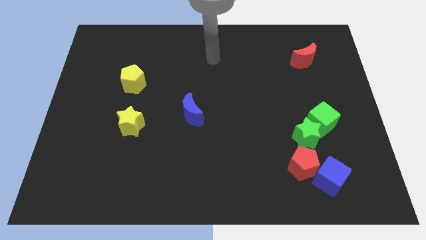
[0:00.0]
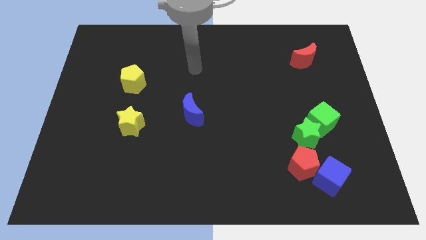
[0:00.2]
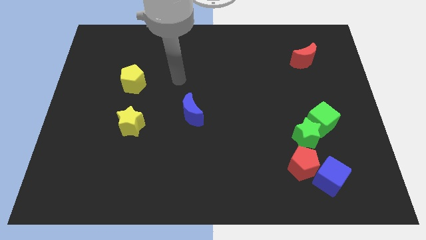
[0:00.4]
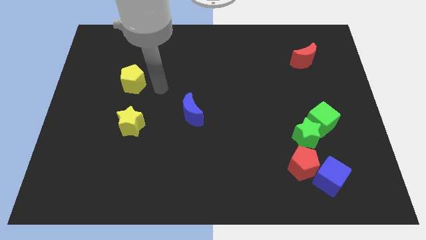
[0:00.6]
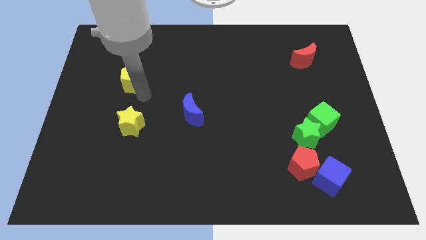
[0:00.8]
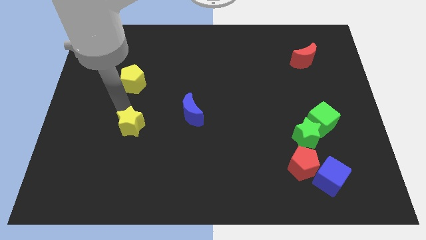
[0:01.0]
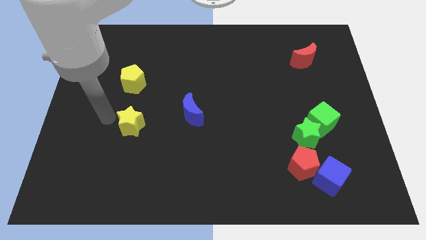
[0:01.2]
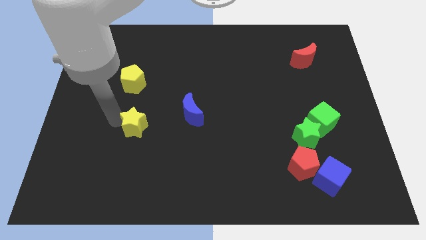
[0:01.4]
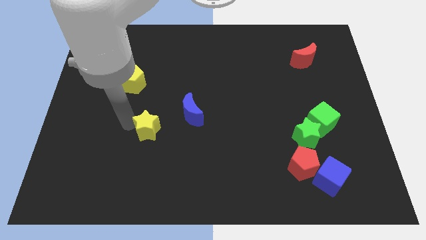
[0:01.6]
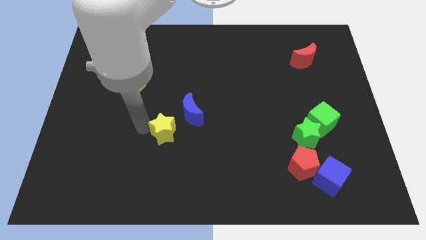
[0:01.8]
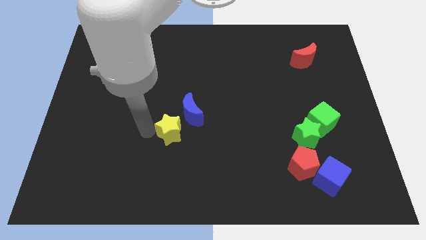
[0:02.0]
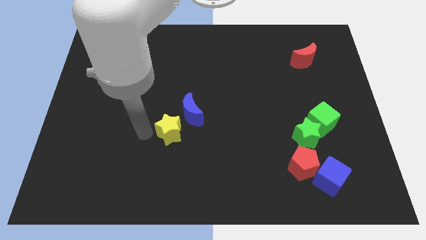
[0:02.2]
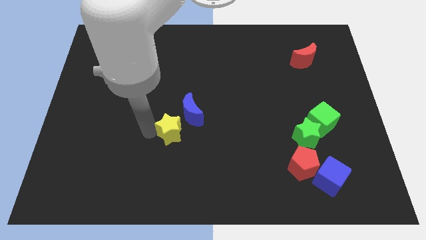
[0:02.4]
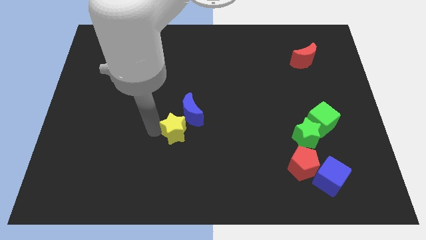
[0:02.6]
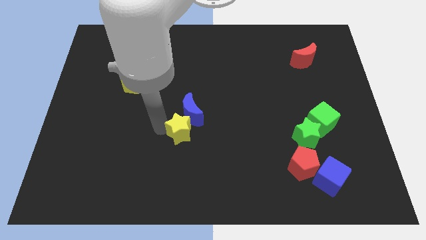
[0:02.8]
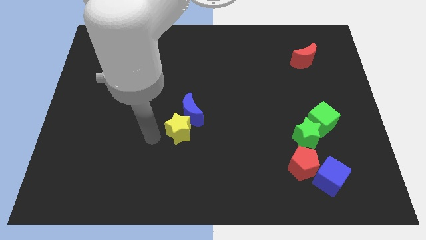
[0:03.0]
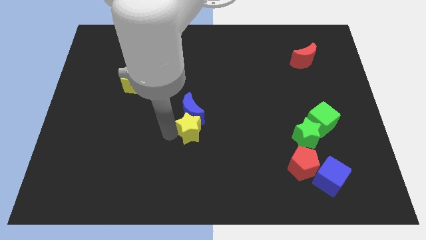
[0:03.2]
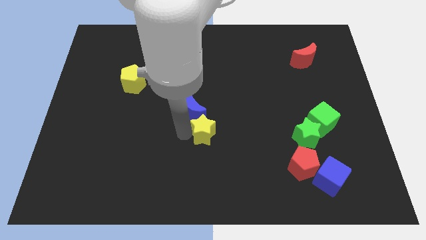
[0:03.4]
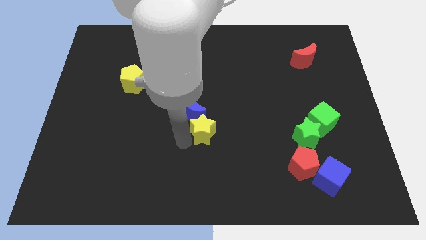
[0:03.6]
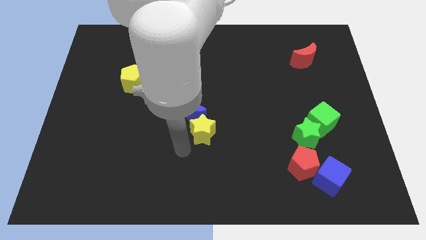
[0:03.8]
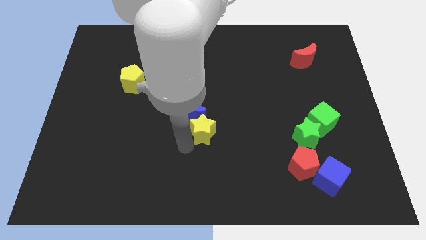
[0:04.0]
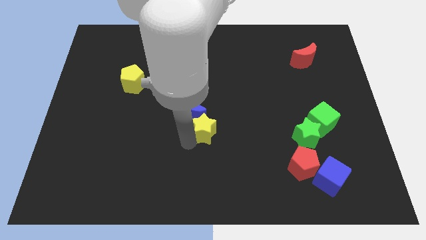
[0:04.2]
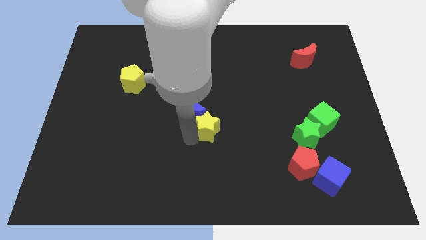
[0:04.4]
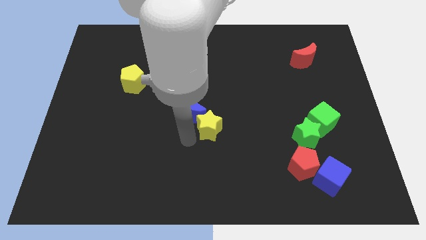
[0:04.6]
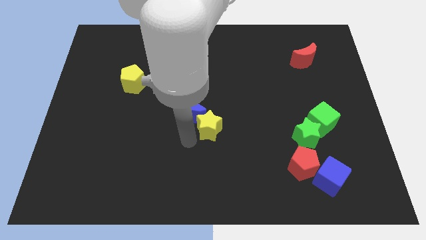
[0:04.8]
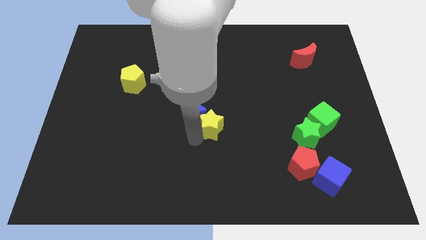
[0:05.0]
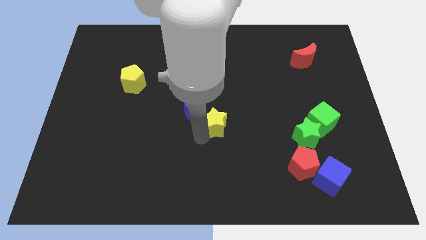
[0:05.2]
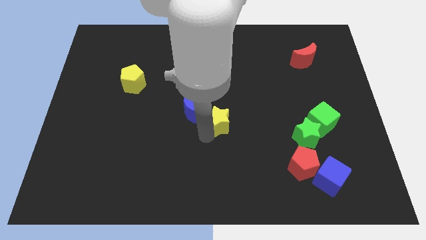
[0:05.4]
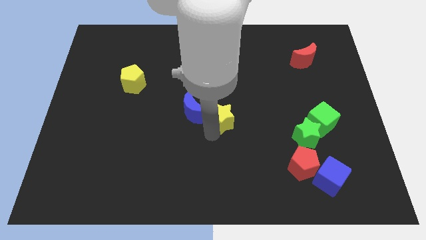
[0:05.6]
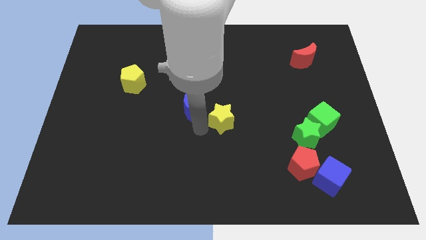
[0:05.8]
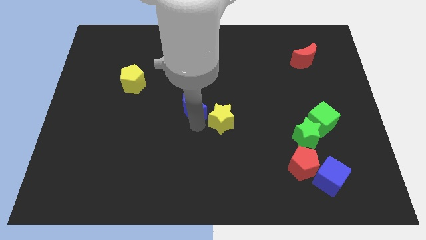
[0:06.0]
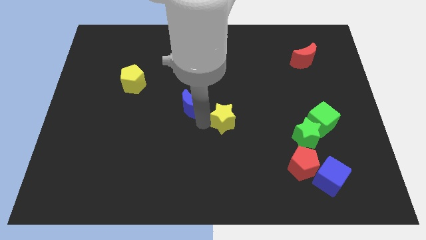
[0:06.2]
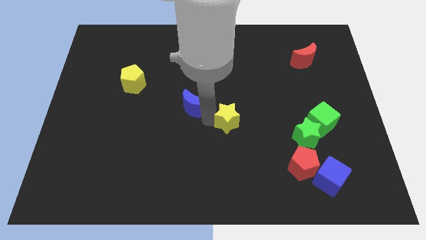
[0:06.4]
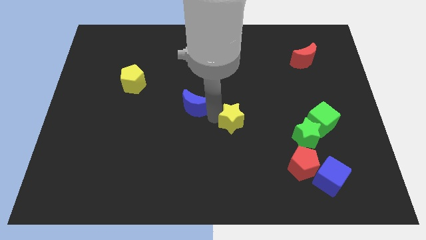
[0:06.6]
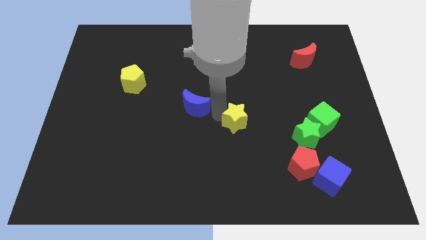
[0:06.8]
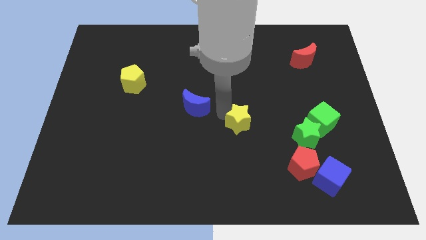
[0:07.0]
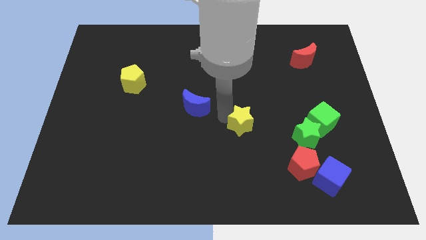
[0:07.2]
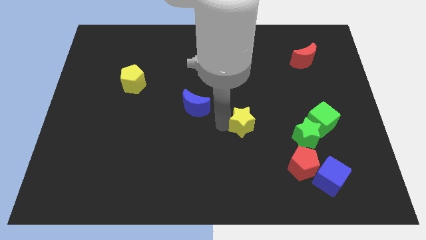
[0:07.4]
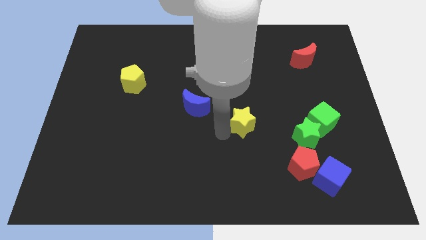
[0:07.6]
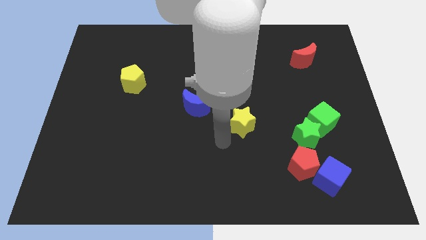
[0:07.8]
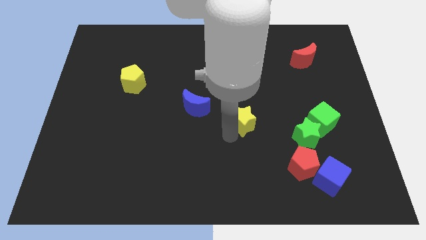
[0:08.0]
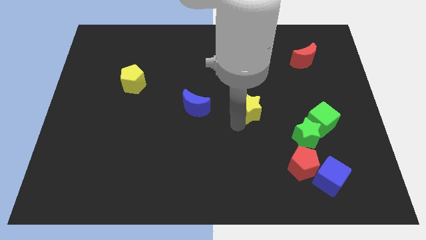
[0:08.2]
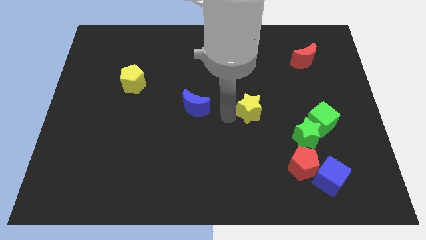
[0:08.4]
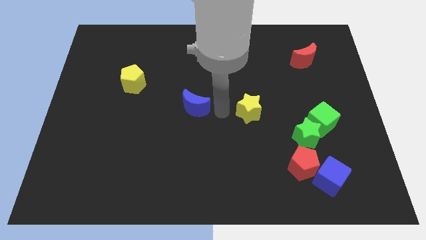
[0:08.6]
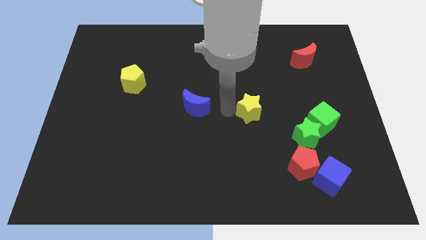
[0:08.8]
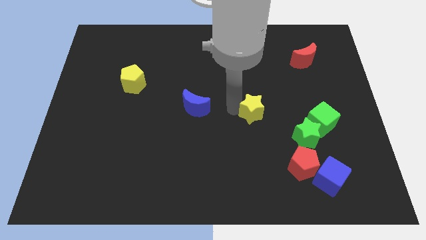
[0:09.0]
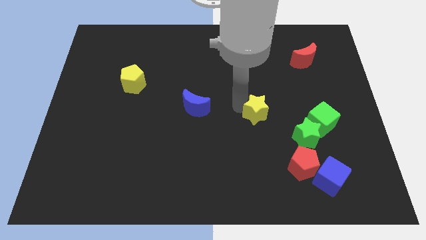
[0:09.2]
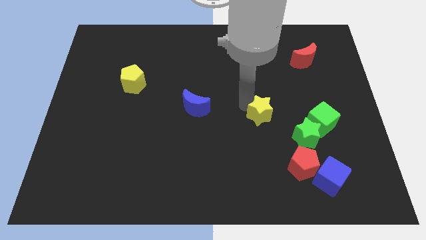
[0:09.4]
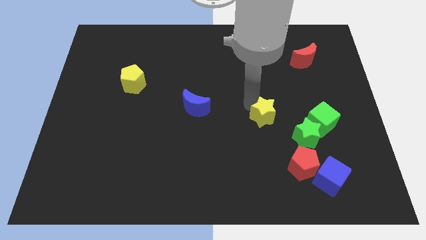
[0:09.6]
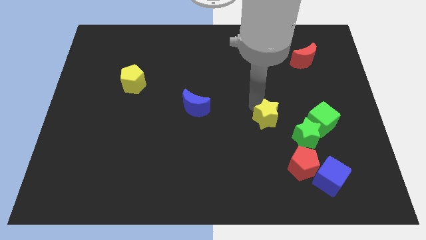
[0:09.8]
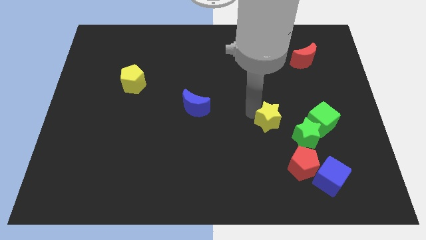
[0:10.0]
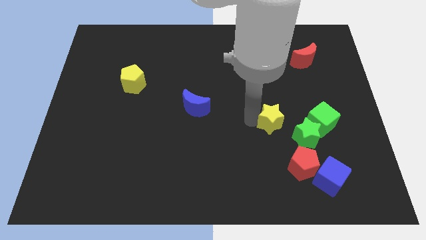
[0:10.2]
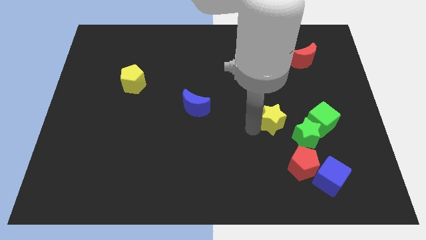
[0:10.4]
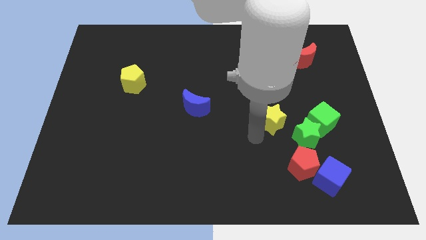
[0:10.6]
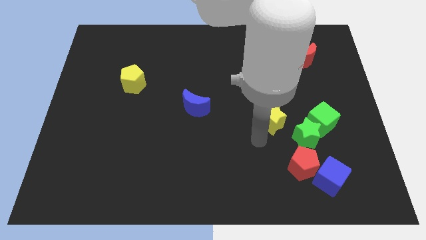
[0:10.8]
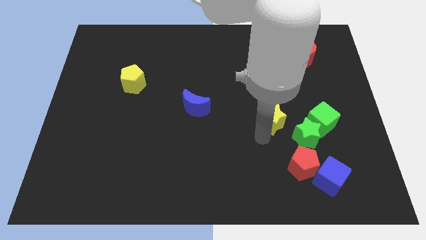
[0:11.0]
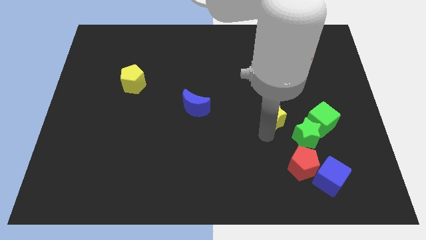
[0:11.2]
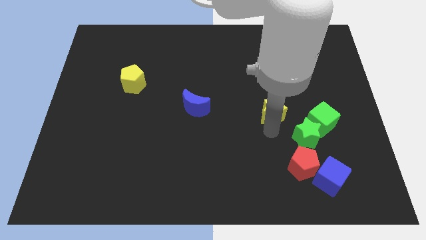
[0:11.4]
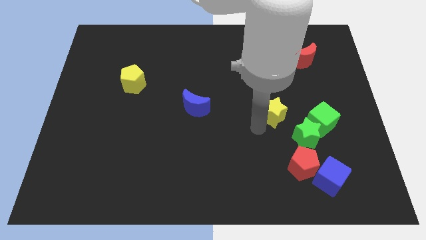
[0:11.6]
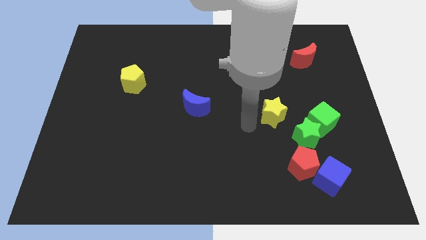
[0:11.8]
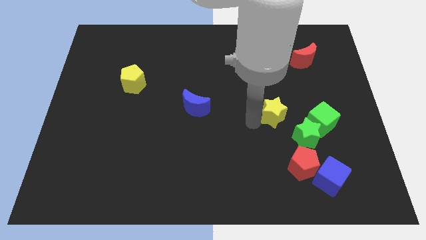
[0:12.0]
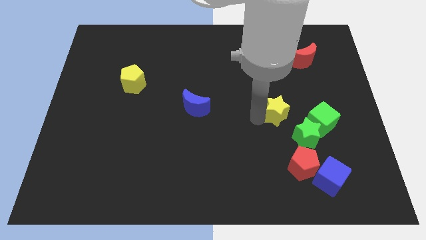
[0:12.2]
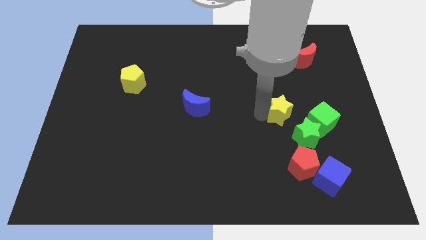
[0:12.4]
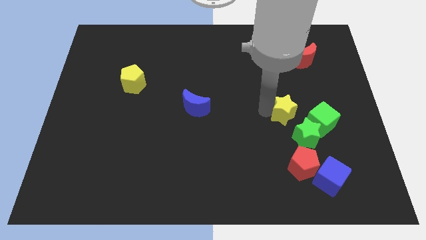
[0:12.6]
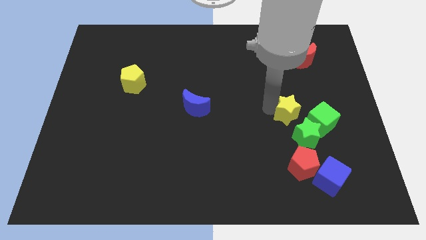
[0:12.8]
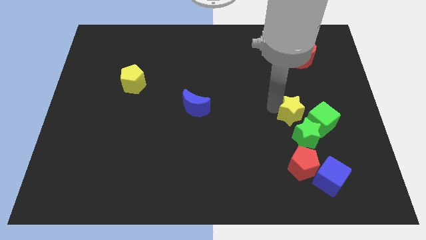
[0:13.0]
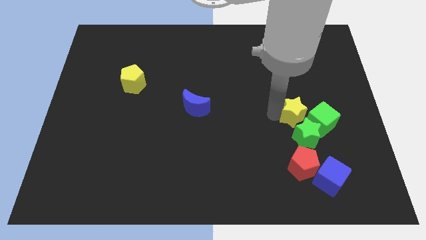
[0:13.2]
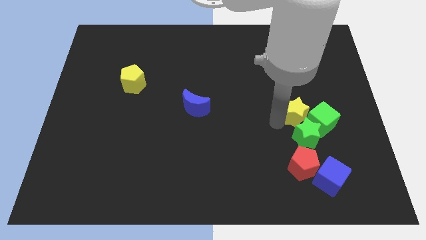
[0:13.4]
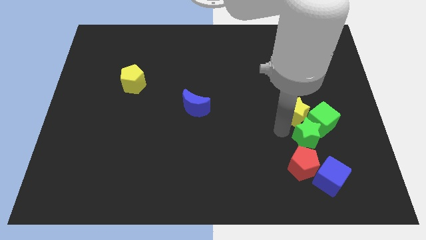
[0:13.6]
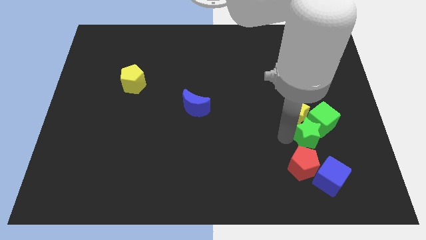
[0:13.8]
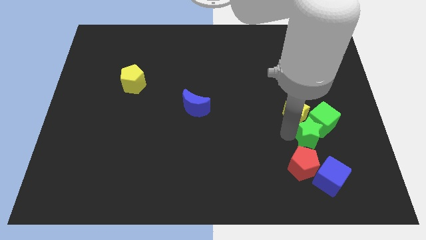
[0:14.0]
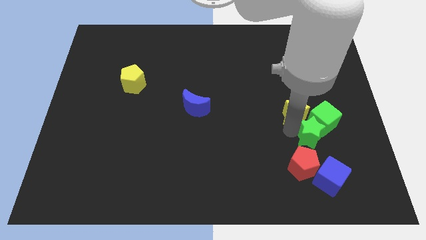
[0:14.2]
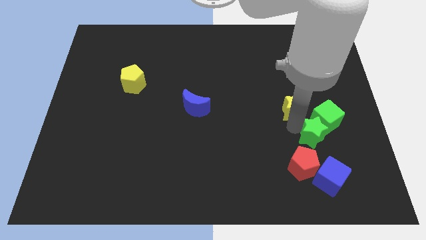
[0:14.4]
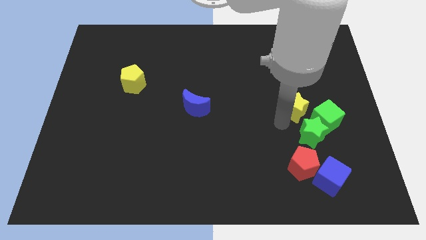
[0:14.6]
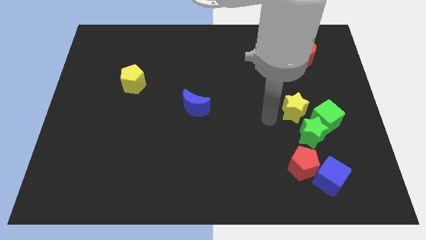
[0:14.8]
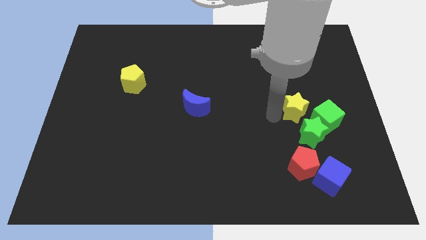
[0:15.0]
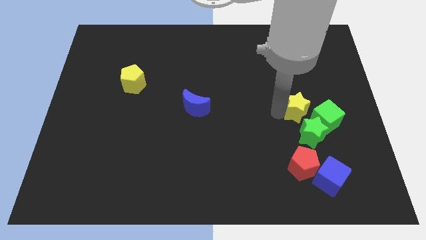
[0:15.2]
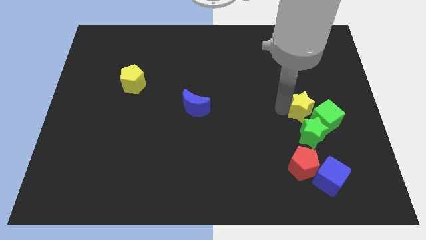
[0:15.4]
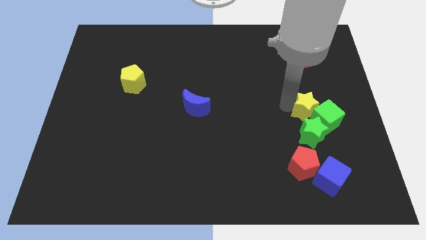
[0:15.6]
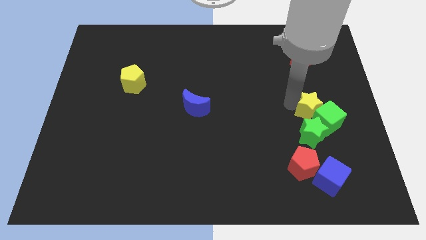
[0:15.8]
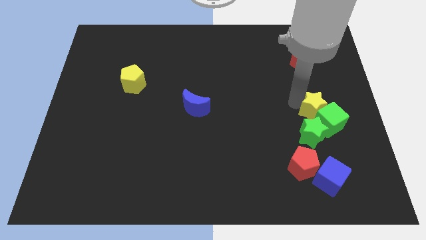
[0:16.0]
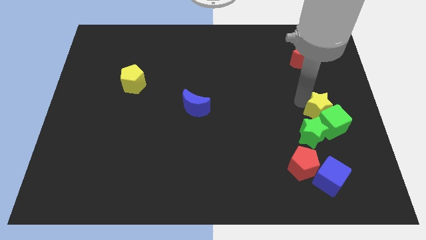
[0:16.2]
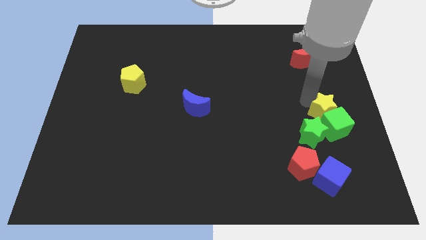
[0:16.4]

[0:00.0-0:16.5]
put the yellow star to the right side of the board
